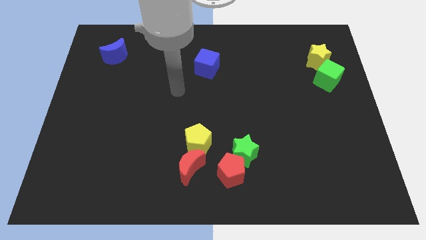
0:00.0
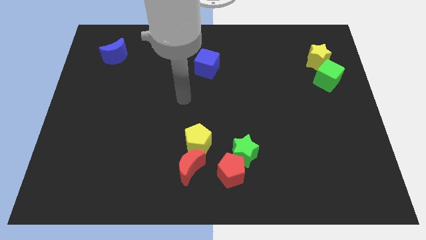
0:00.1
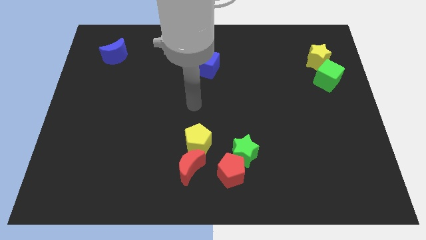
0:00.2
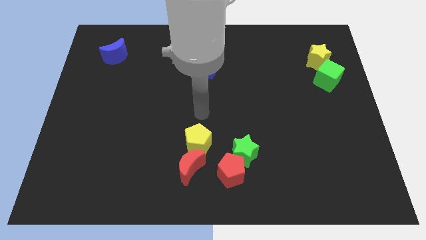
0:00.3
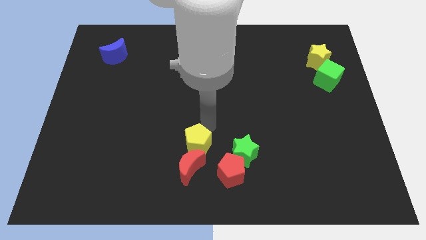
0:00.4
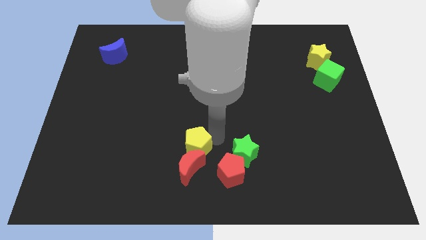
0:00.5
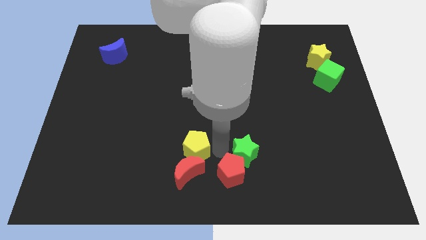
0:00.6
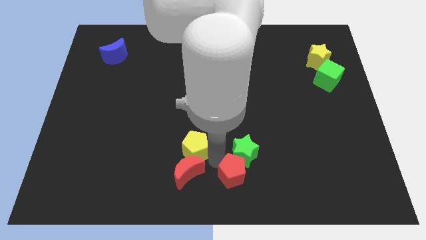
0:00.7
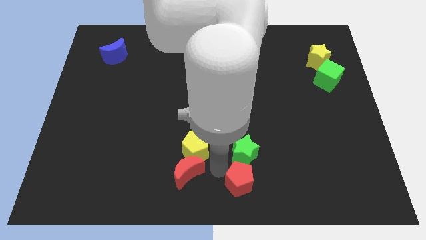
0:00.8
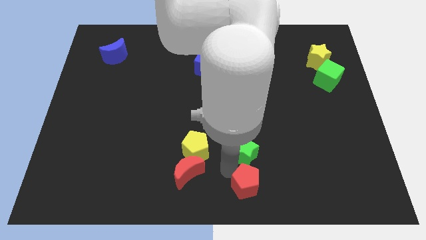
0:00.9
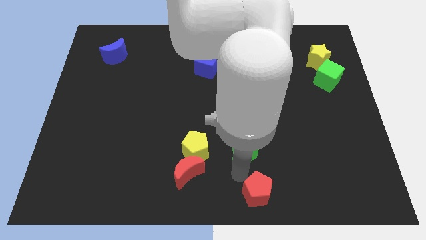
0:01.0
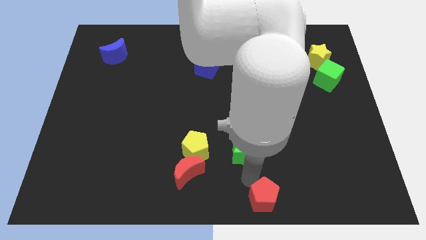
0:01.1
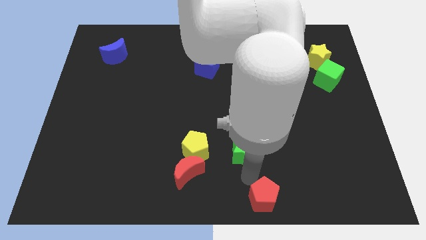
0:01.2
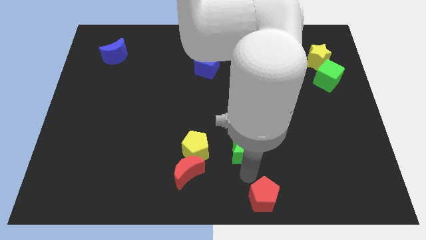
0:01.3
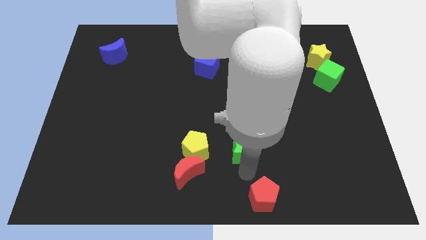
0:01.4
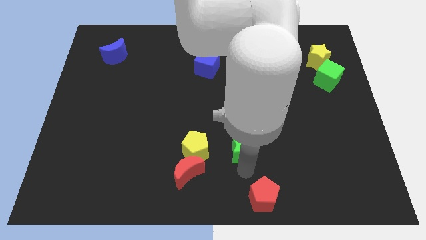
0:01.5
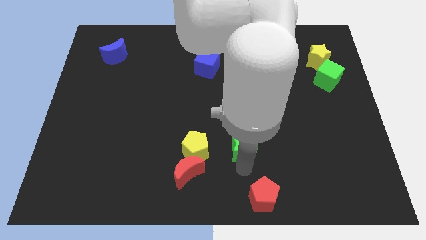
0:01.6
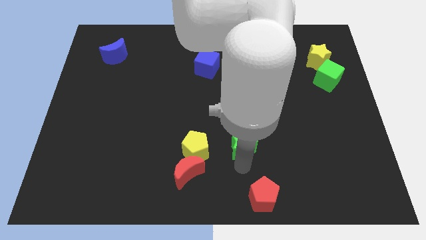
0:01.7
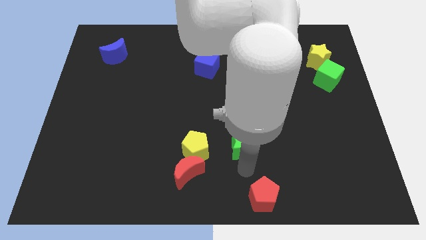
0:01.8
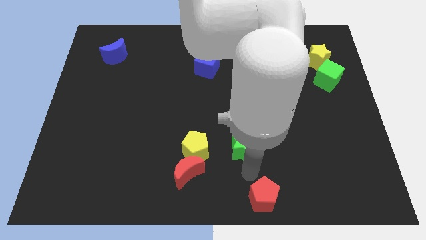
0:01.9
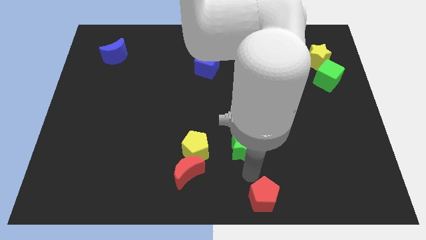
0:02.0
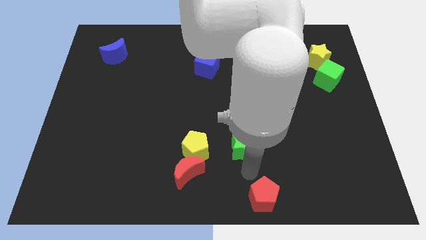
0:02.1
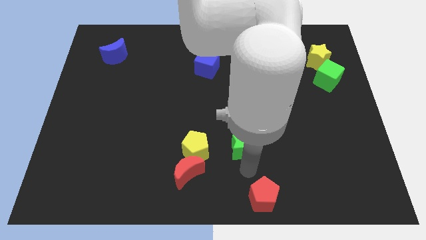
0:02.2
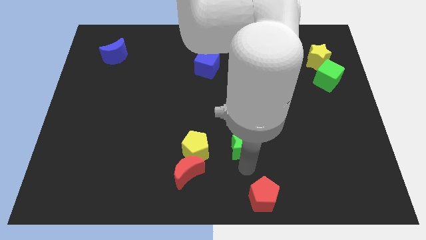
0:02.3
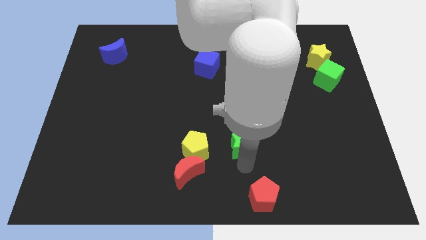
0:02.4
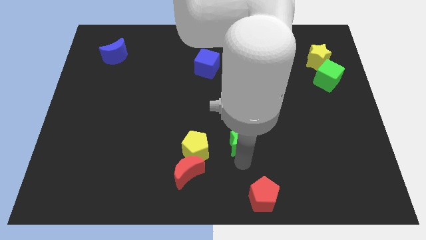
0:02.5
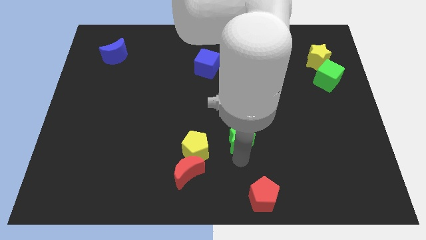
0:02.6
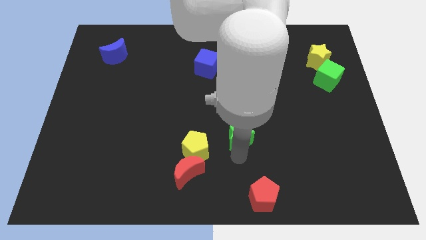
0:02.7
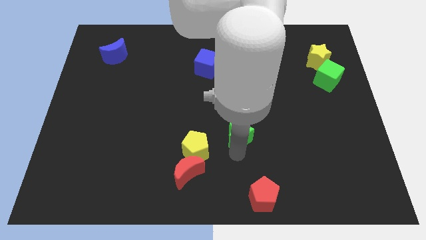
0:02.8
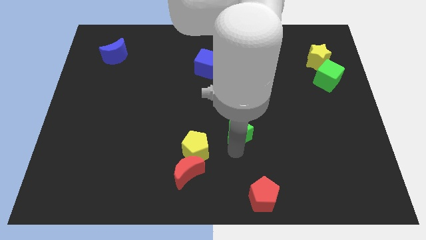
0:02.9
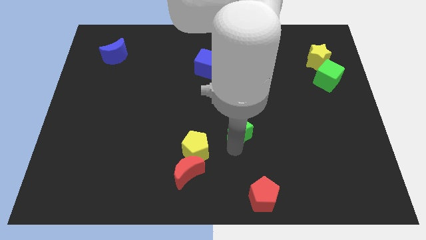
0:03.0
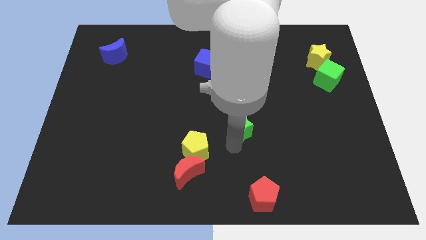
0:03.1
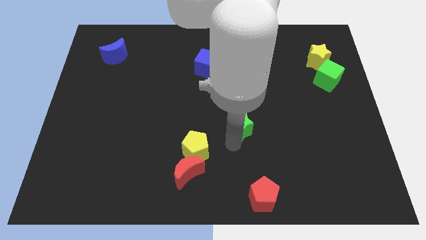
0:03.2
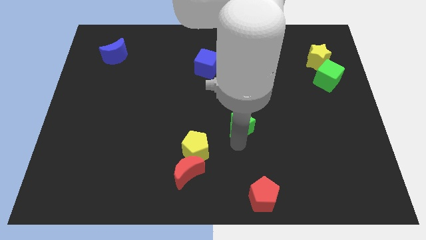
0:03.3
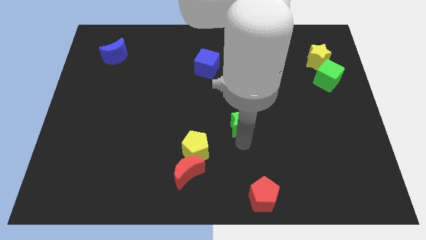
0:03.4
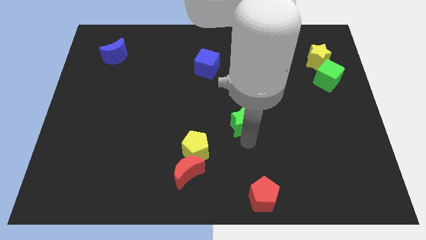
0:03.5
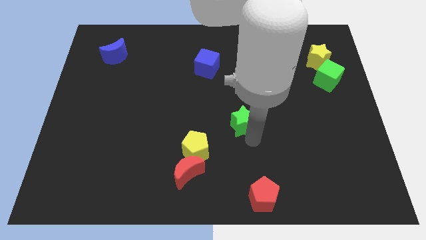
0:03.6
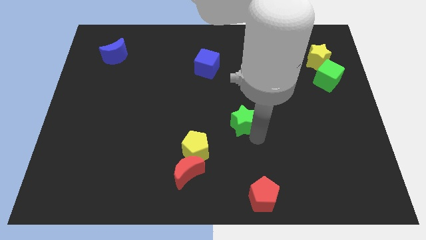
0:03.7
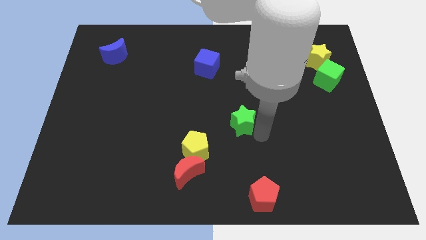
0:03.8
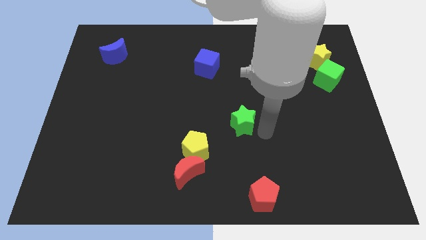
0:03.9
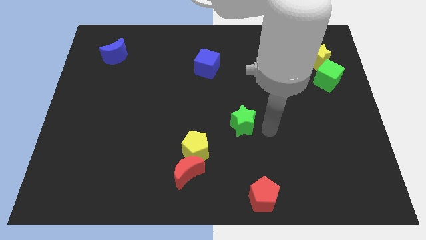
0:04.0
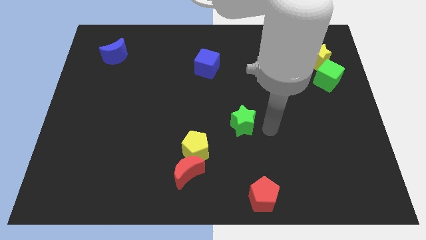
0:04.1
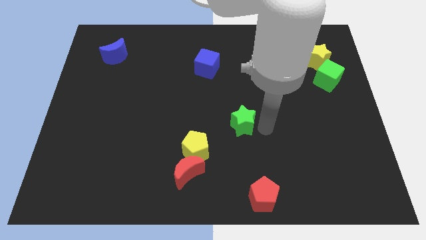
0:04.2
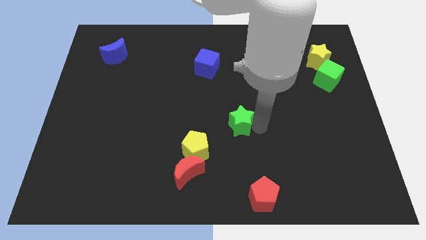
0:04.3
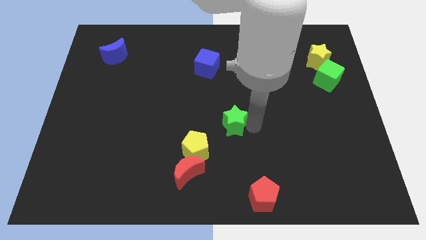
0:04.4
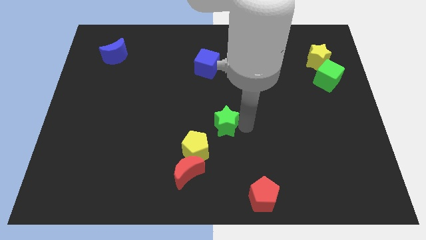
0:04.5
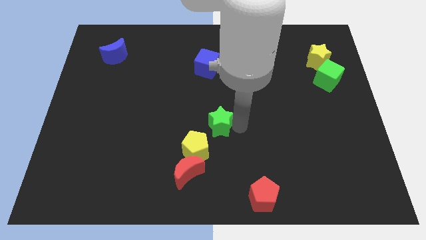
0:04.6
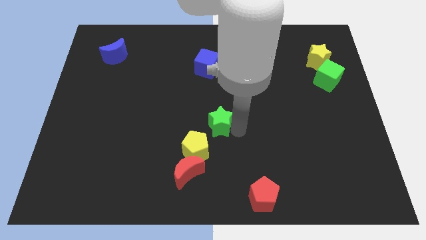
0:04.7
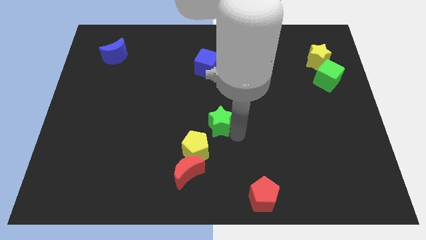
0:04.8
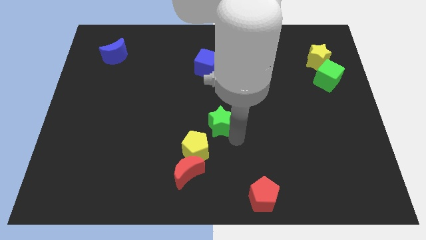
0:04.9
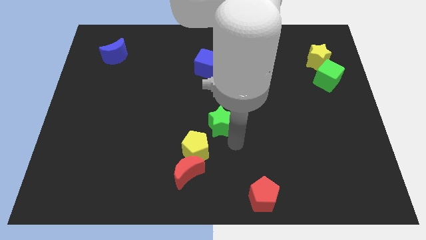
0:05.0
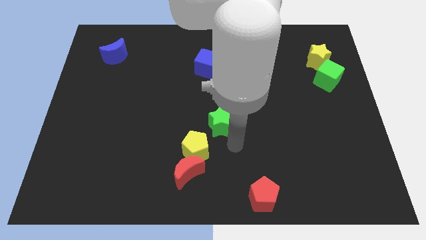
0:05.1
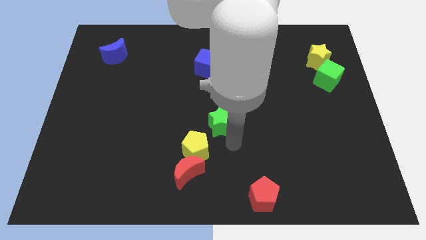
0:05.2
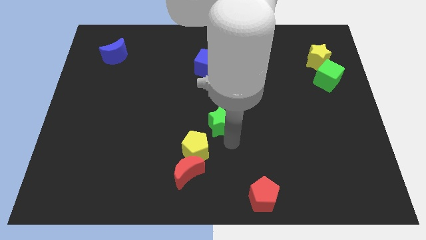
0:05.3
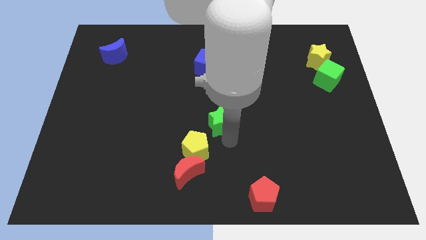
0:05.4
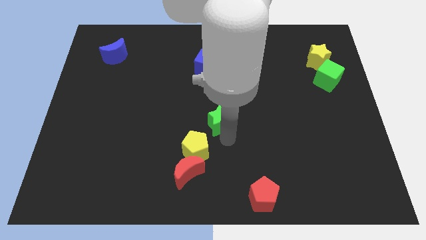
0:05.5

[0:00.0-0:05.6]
move the green star above the yellow pentagon

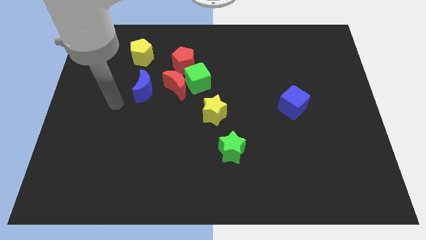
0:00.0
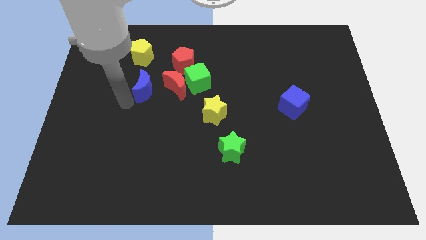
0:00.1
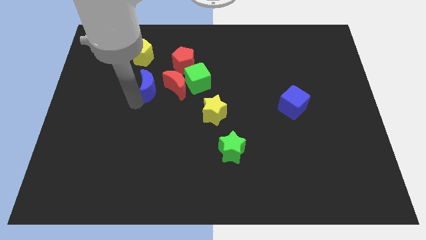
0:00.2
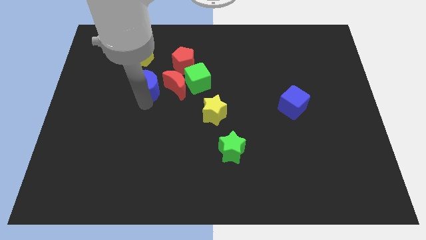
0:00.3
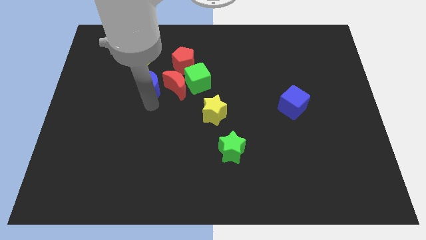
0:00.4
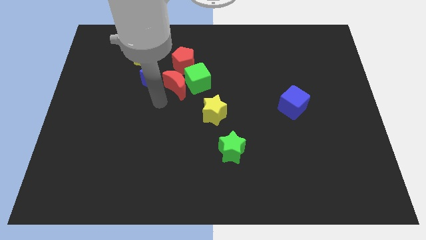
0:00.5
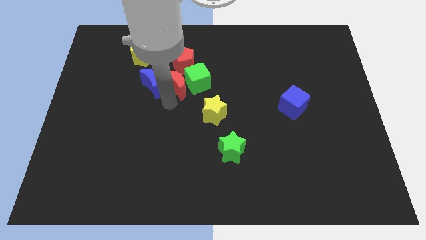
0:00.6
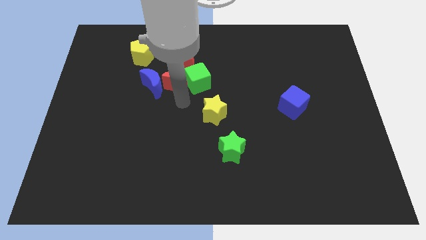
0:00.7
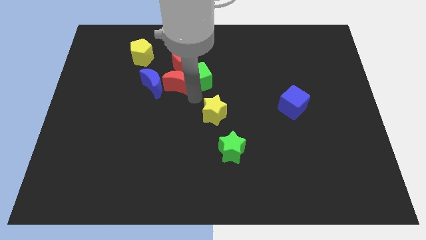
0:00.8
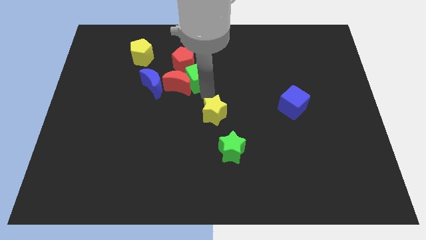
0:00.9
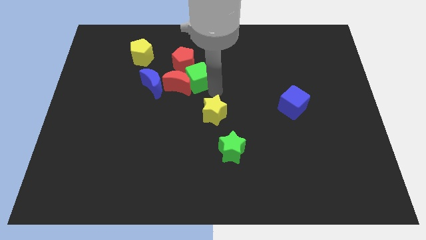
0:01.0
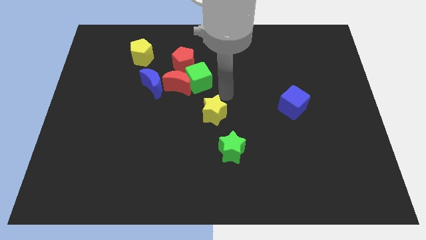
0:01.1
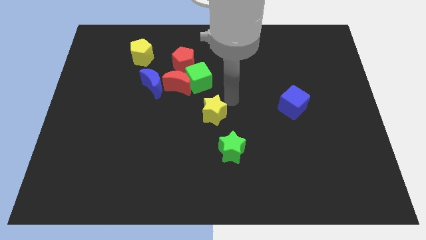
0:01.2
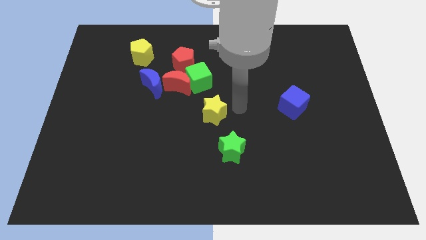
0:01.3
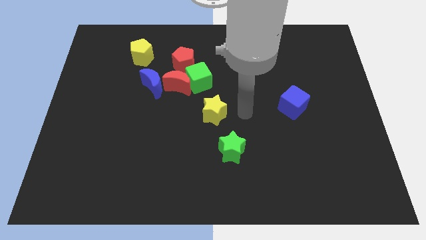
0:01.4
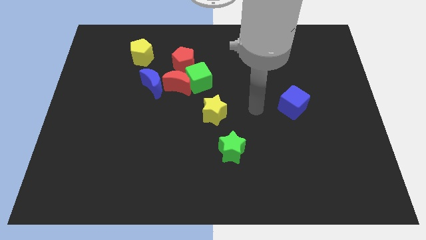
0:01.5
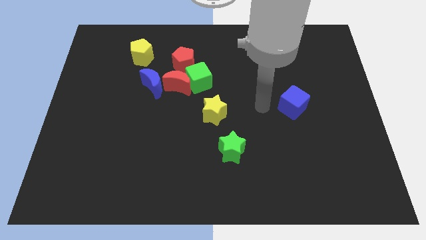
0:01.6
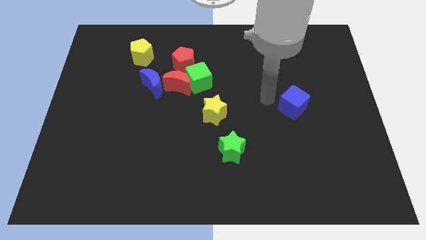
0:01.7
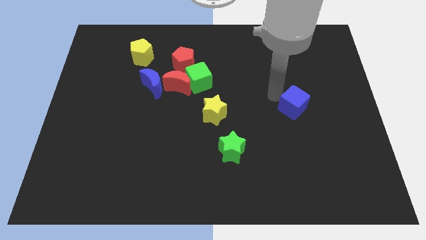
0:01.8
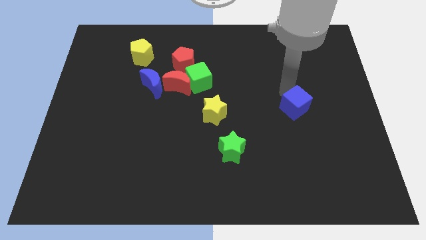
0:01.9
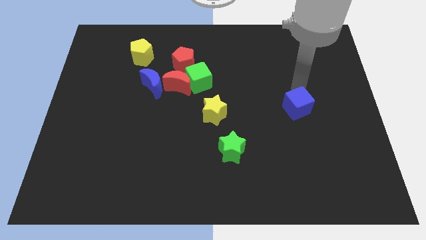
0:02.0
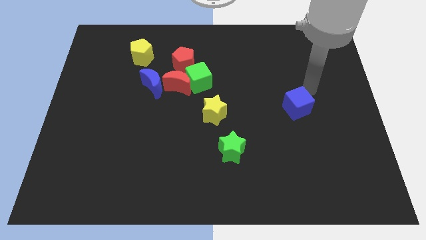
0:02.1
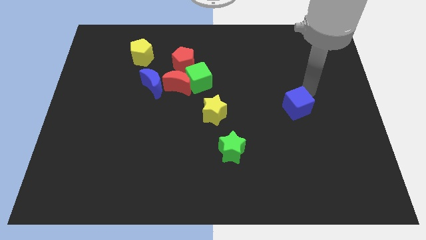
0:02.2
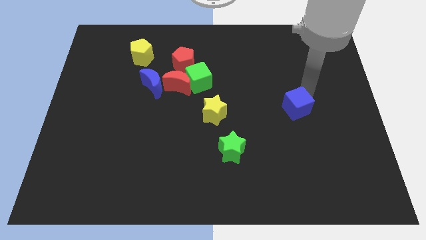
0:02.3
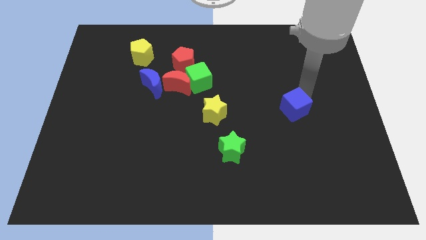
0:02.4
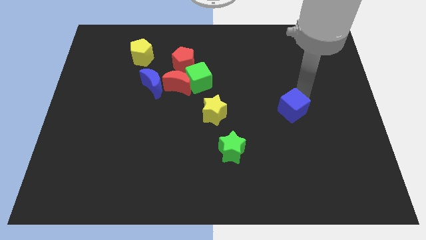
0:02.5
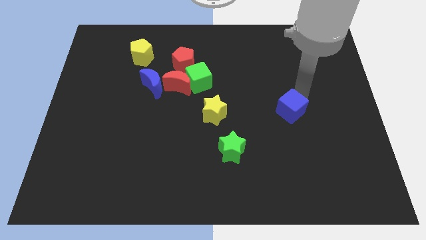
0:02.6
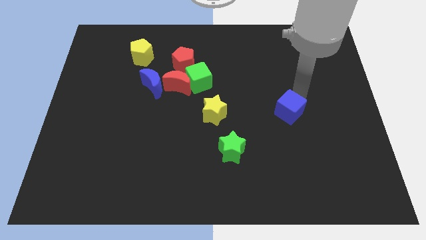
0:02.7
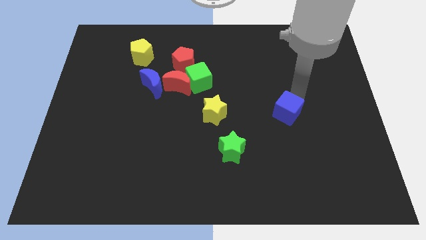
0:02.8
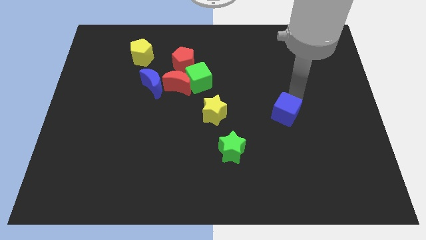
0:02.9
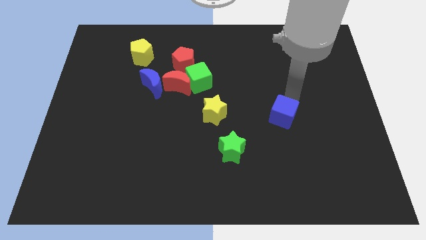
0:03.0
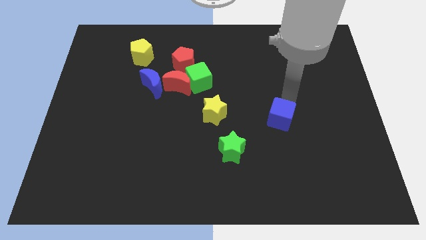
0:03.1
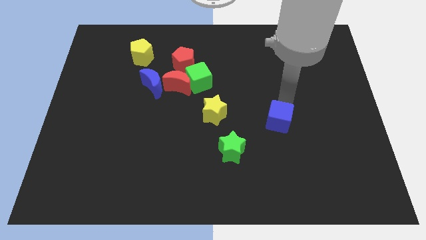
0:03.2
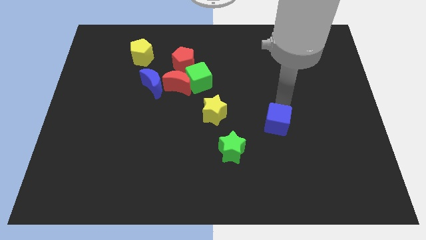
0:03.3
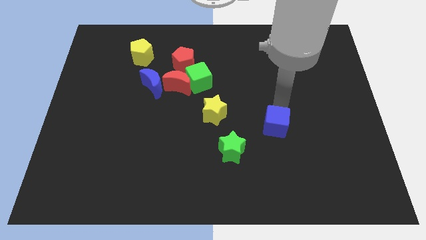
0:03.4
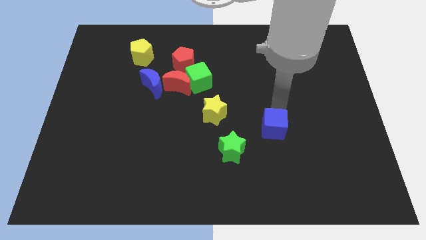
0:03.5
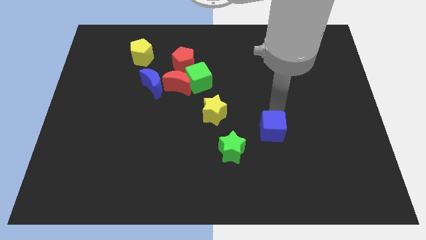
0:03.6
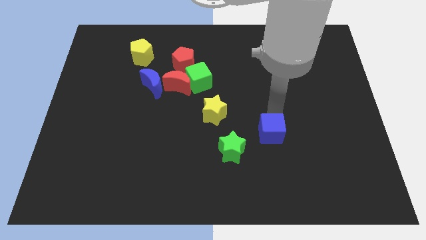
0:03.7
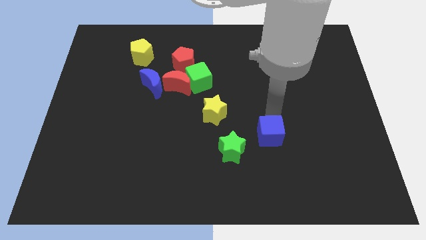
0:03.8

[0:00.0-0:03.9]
move the blue cube to the right of the green star
